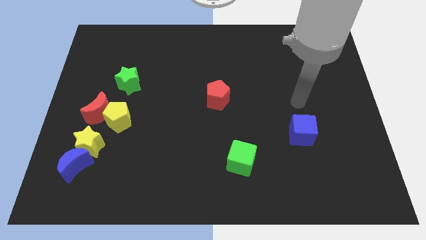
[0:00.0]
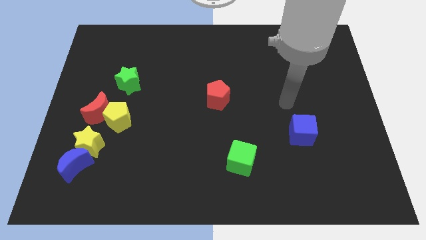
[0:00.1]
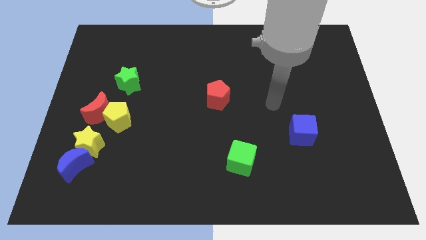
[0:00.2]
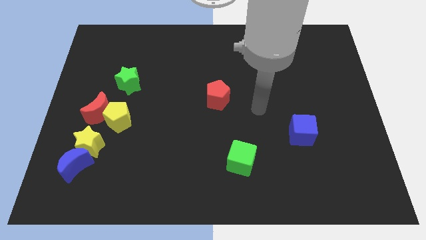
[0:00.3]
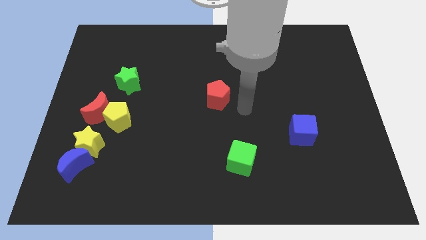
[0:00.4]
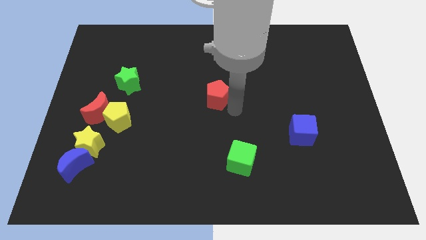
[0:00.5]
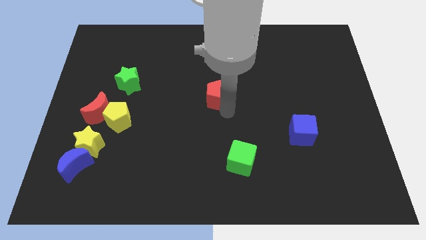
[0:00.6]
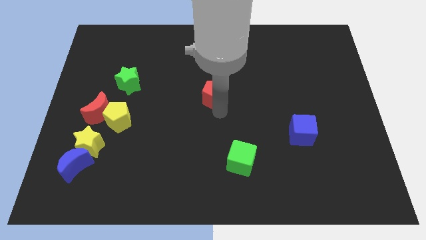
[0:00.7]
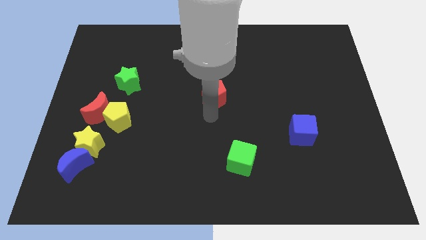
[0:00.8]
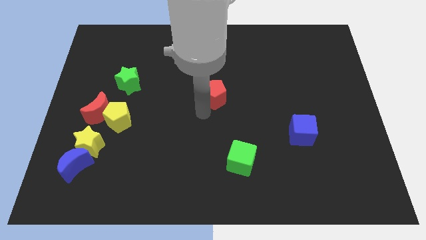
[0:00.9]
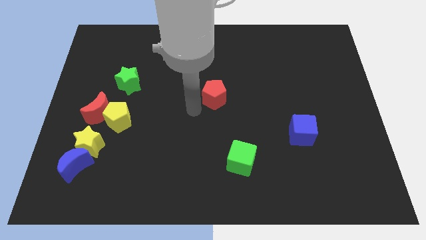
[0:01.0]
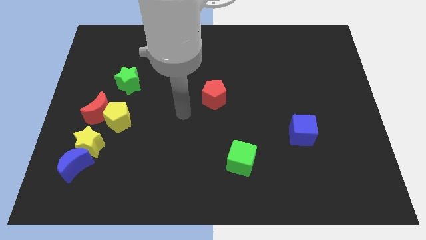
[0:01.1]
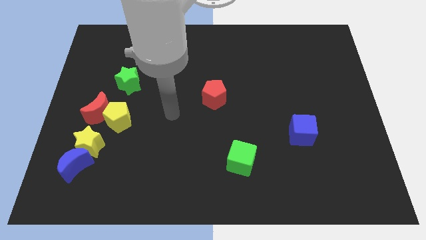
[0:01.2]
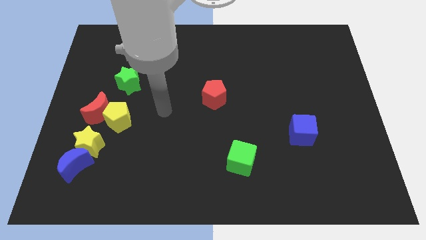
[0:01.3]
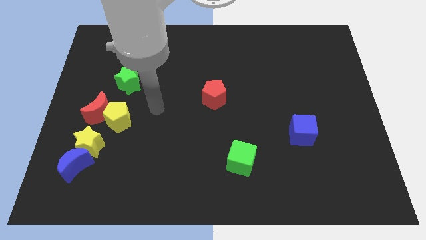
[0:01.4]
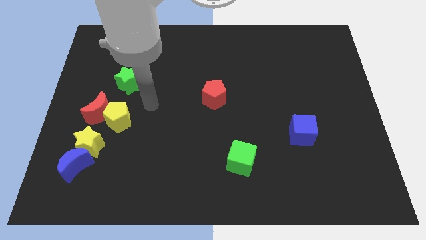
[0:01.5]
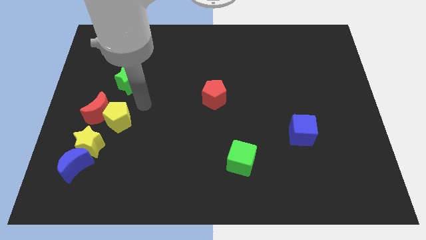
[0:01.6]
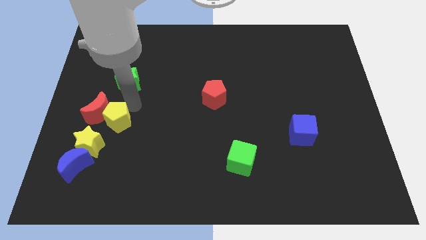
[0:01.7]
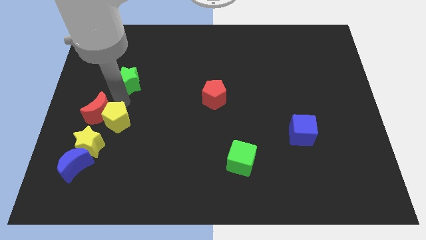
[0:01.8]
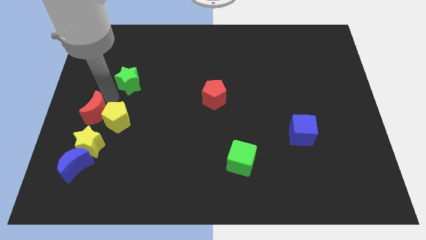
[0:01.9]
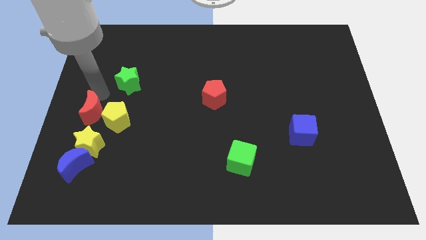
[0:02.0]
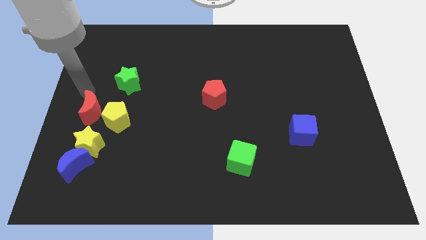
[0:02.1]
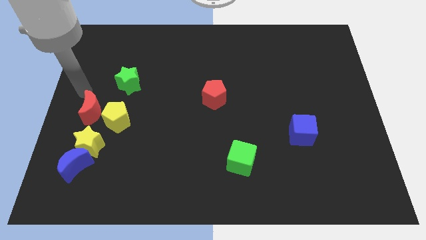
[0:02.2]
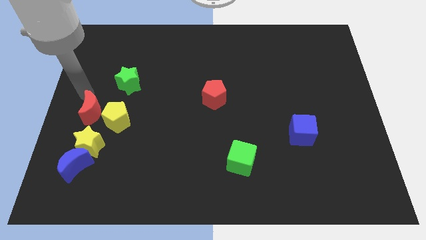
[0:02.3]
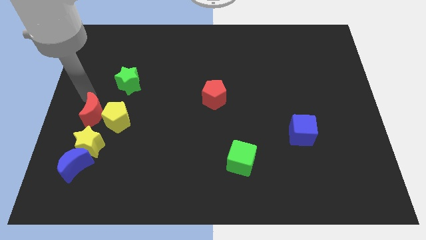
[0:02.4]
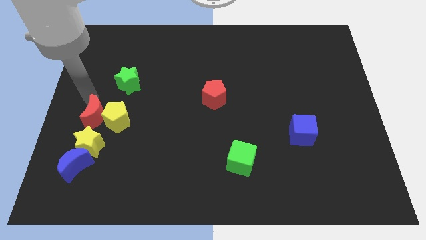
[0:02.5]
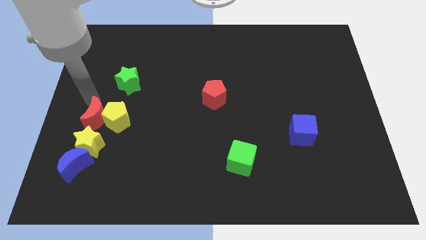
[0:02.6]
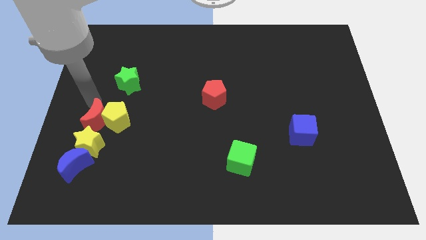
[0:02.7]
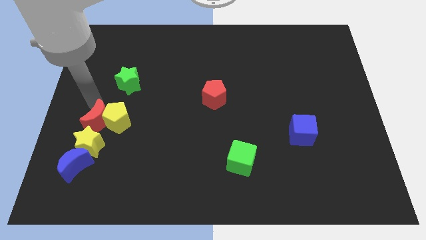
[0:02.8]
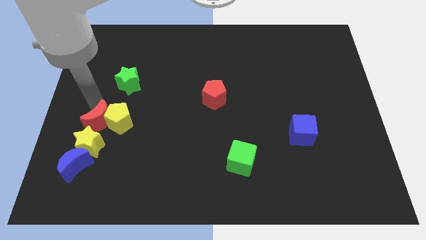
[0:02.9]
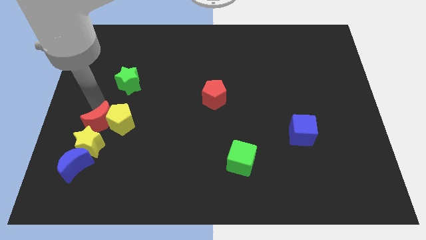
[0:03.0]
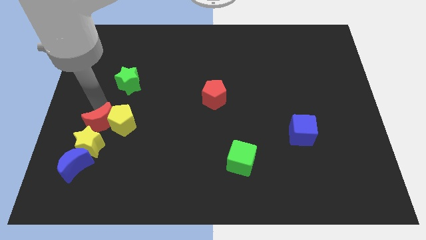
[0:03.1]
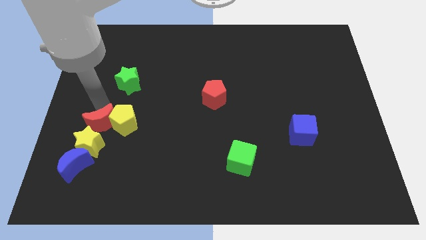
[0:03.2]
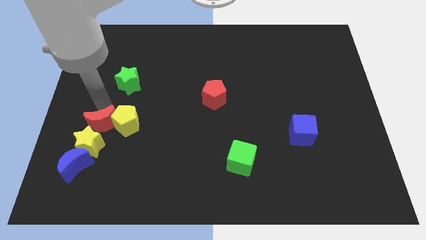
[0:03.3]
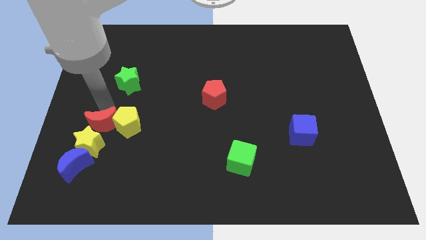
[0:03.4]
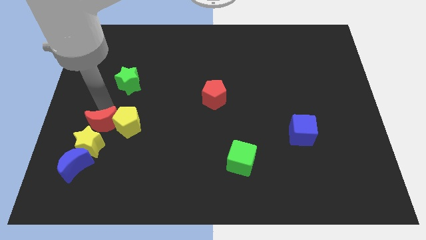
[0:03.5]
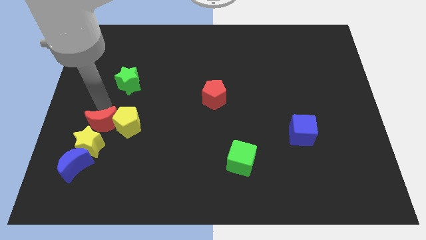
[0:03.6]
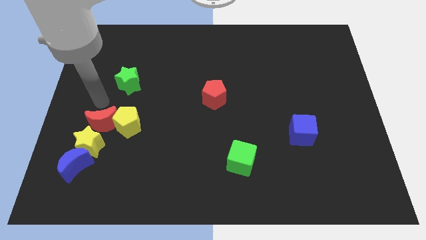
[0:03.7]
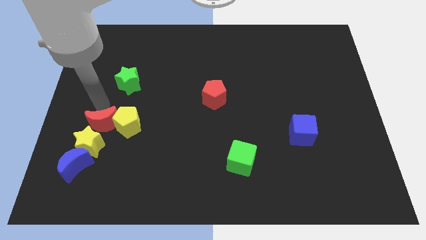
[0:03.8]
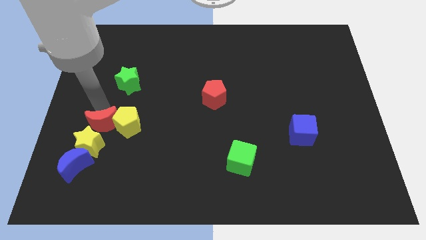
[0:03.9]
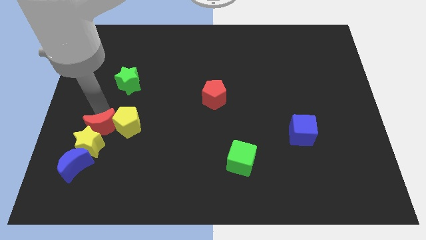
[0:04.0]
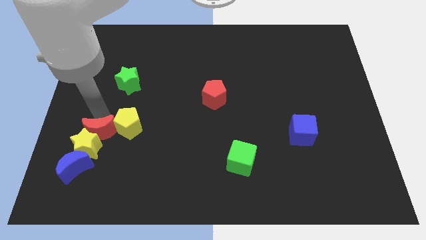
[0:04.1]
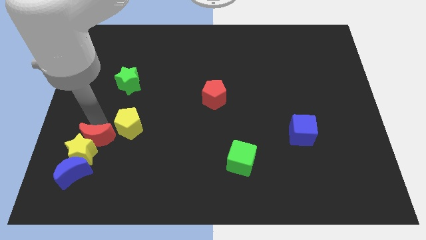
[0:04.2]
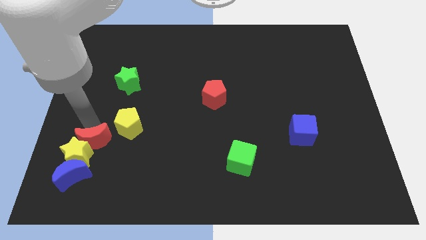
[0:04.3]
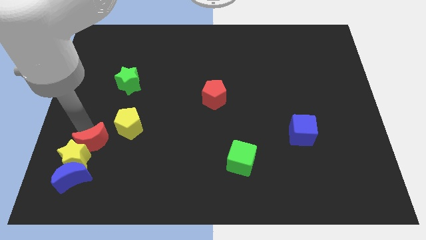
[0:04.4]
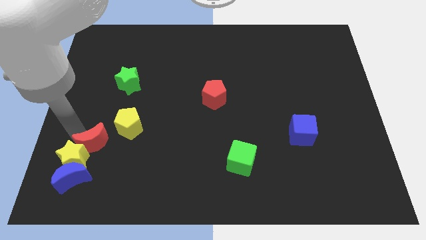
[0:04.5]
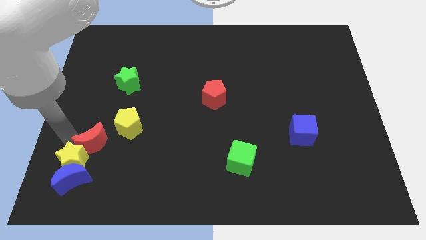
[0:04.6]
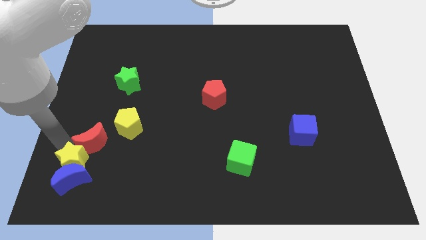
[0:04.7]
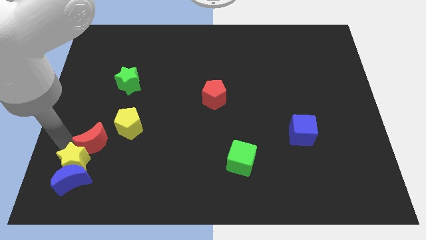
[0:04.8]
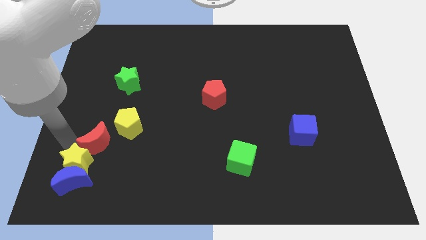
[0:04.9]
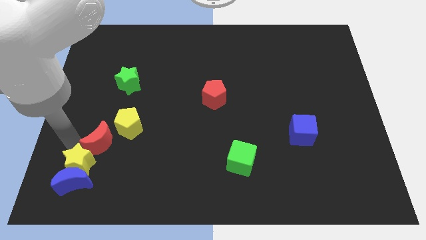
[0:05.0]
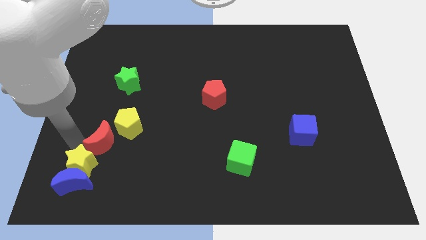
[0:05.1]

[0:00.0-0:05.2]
slightly push the red moon down and to the right diagonally

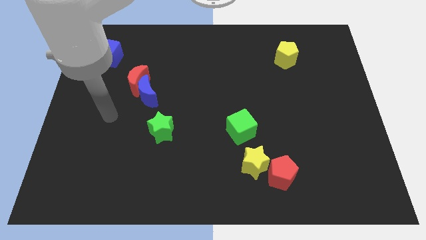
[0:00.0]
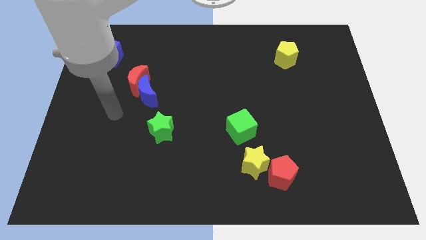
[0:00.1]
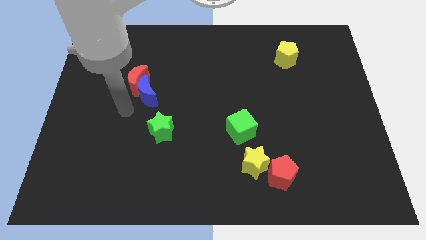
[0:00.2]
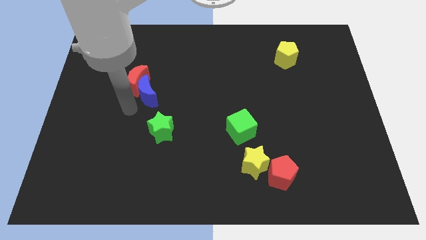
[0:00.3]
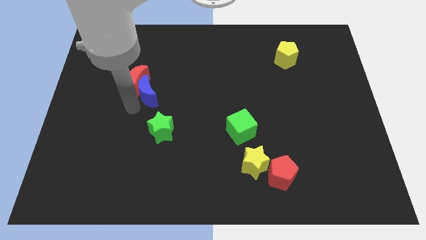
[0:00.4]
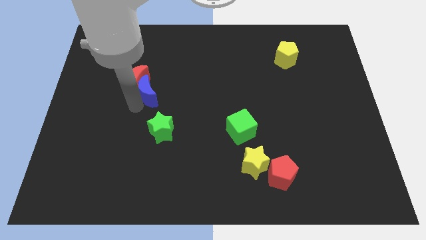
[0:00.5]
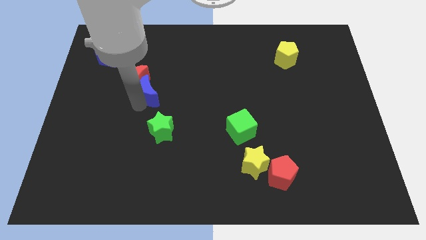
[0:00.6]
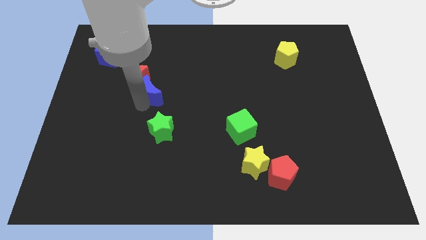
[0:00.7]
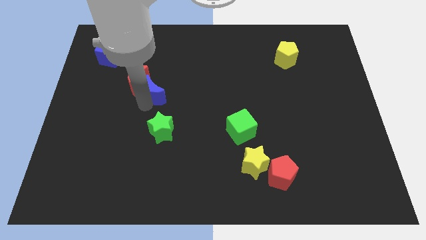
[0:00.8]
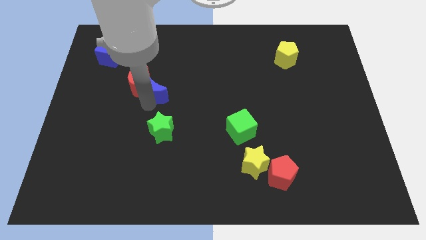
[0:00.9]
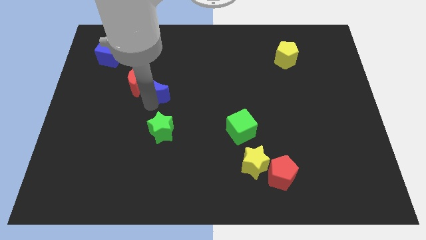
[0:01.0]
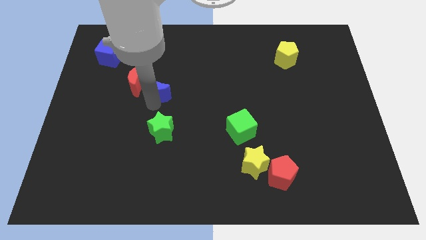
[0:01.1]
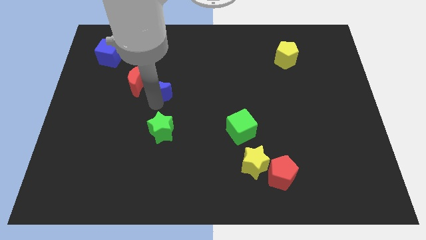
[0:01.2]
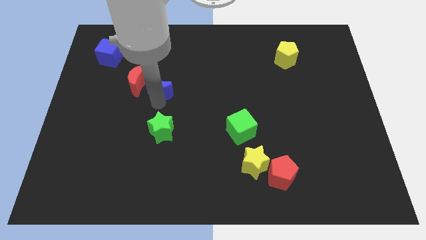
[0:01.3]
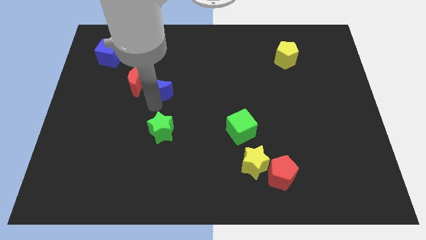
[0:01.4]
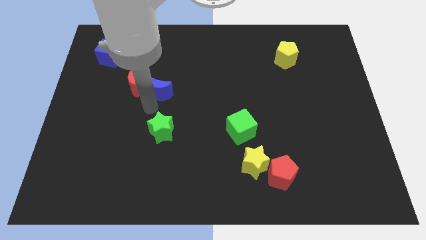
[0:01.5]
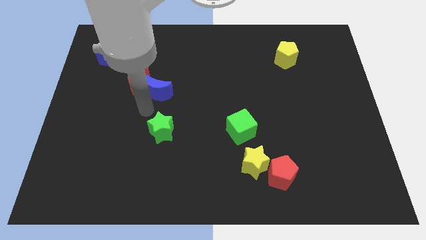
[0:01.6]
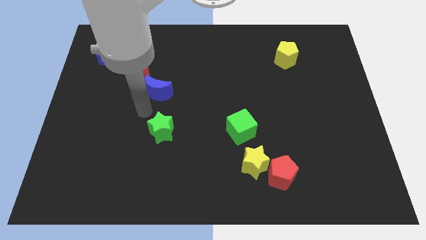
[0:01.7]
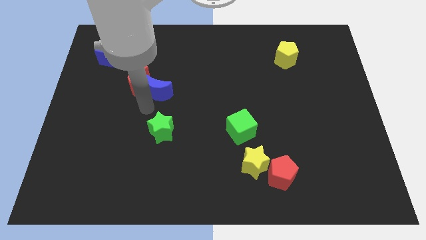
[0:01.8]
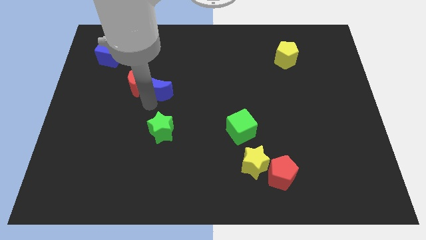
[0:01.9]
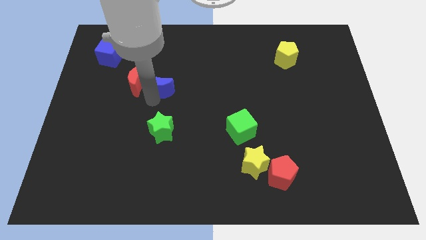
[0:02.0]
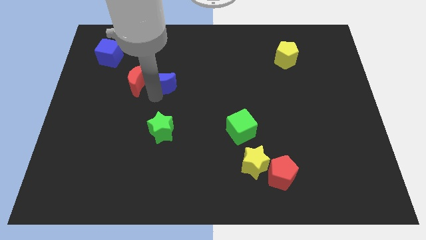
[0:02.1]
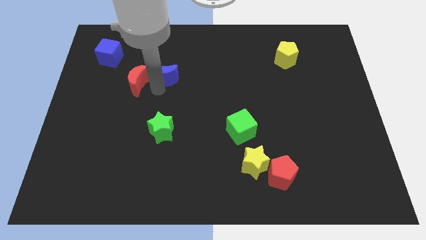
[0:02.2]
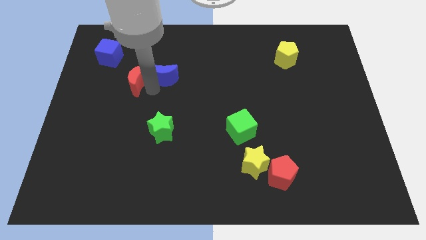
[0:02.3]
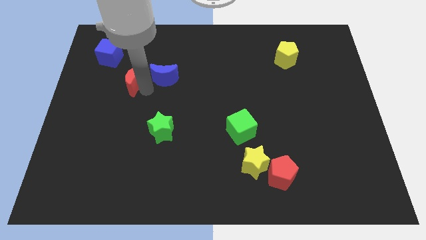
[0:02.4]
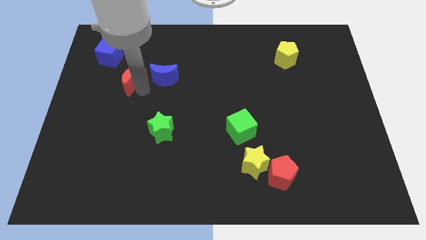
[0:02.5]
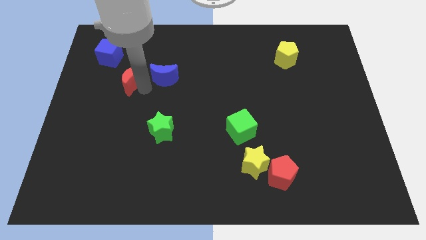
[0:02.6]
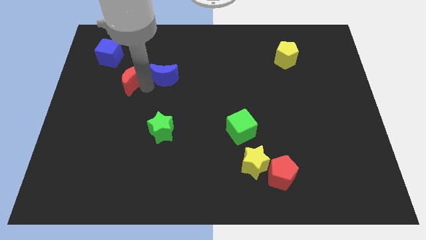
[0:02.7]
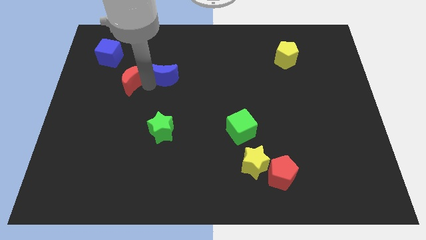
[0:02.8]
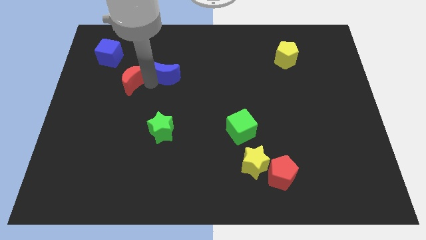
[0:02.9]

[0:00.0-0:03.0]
slightly move the blue moon up and to the right

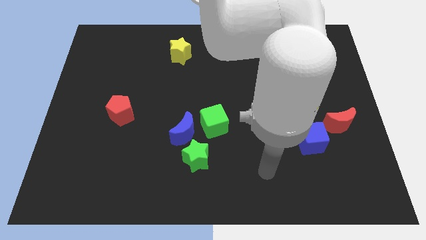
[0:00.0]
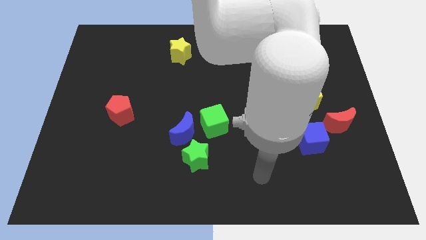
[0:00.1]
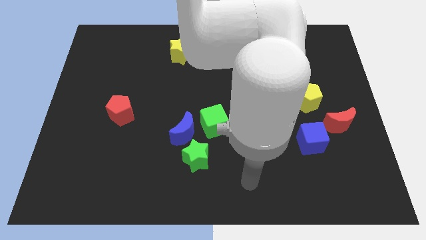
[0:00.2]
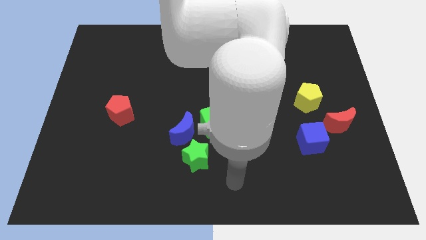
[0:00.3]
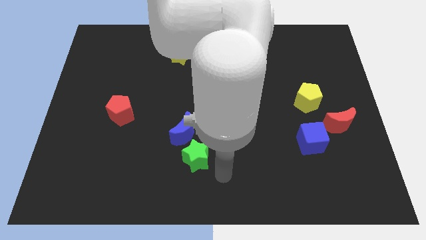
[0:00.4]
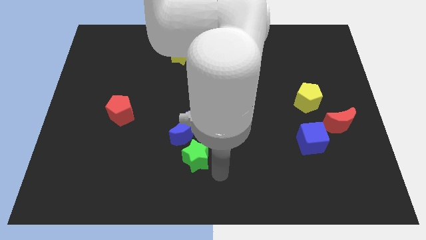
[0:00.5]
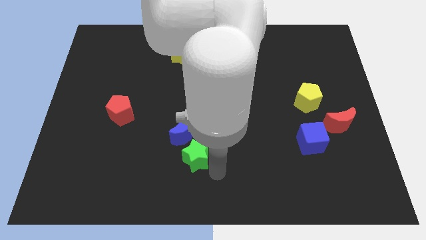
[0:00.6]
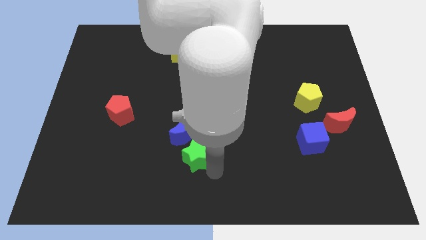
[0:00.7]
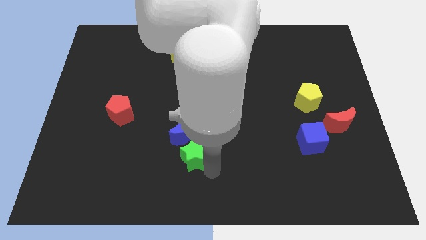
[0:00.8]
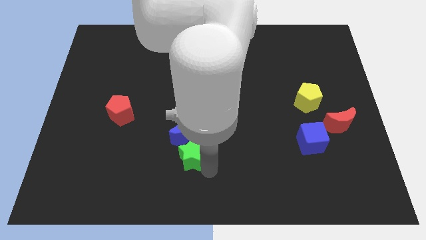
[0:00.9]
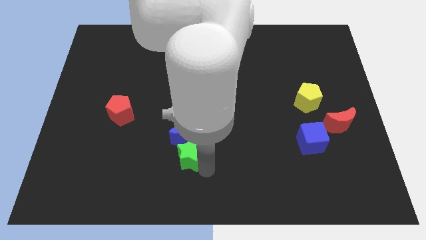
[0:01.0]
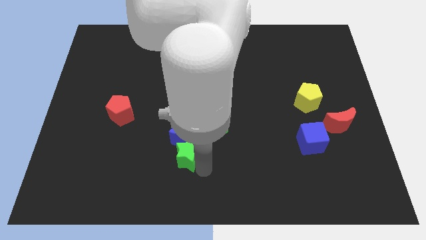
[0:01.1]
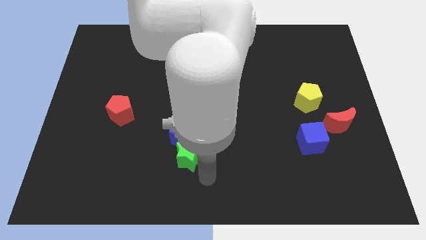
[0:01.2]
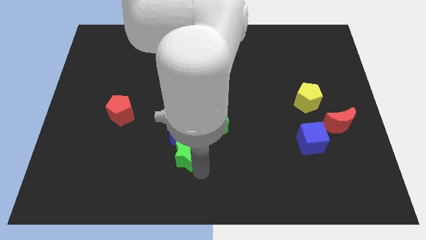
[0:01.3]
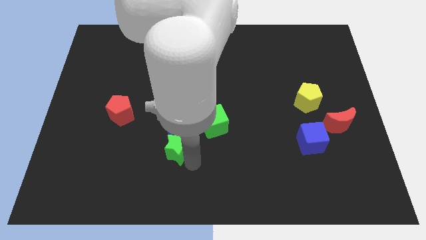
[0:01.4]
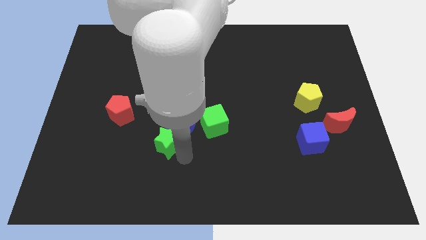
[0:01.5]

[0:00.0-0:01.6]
slide the green star a bit upwards and then left
